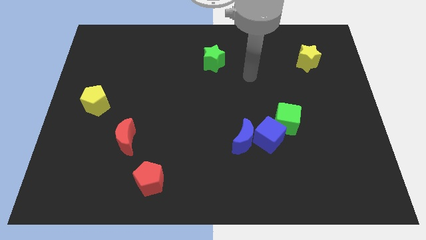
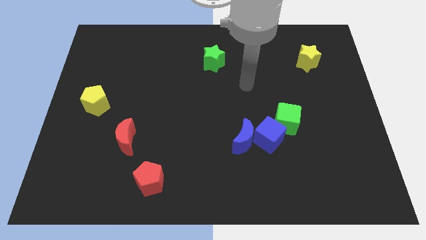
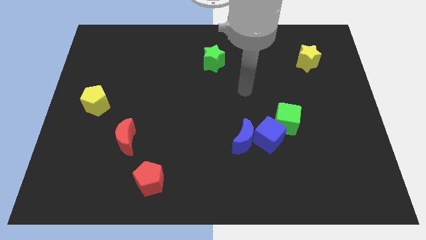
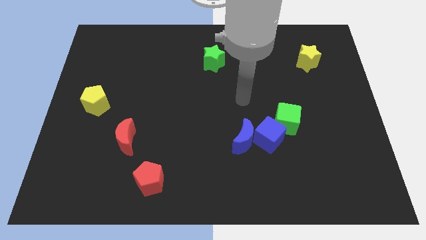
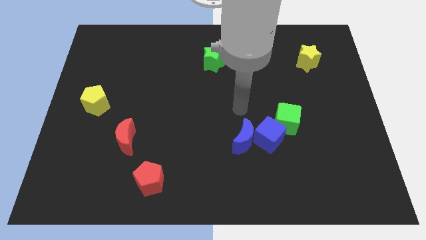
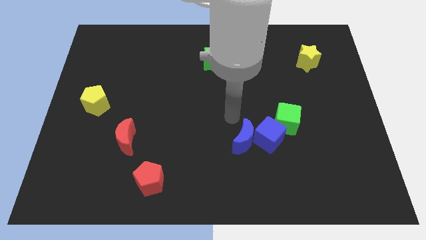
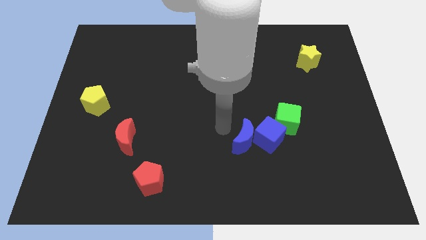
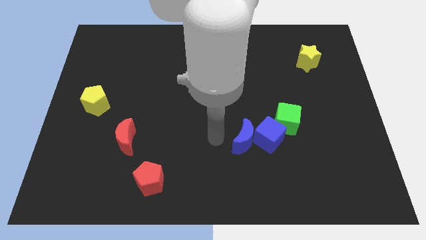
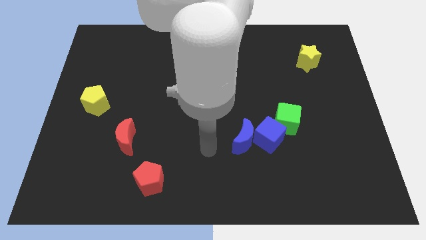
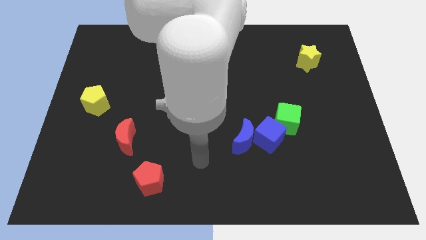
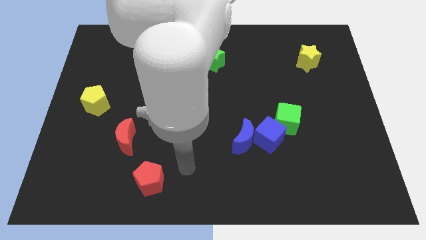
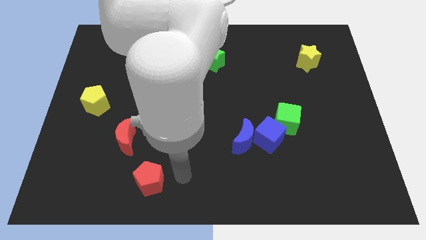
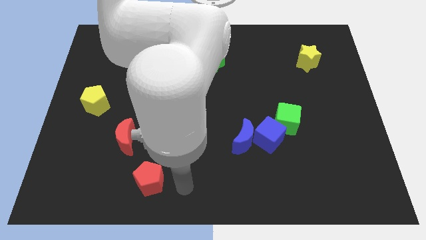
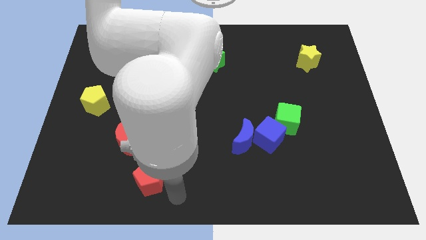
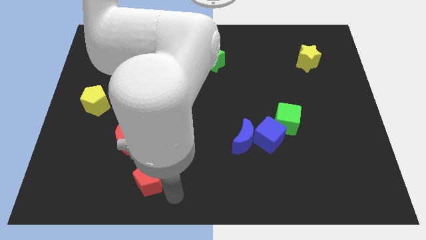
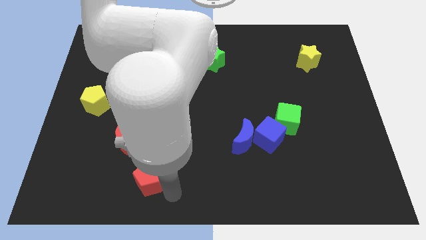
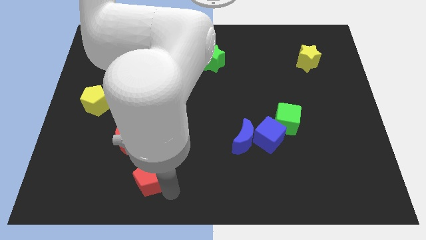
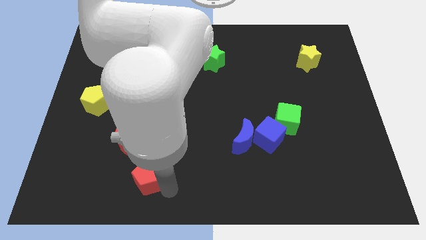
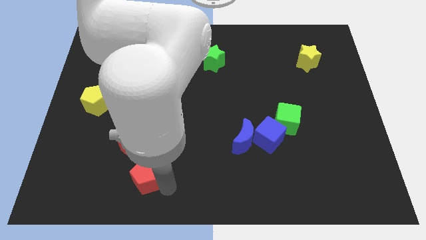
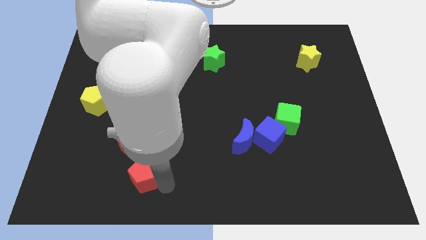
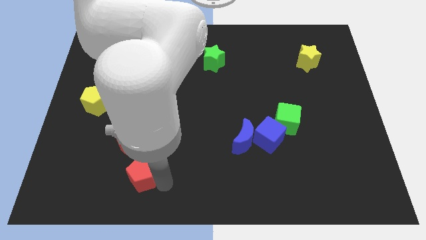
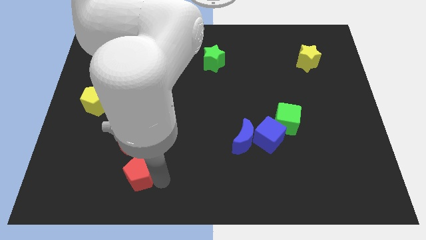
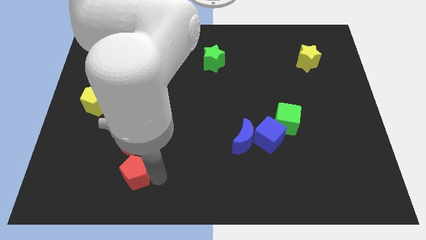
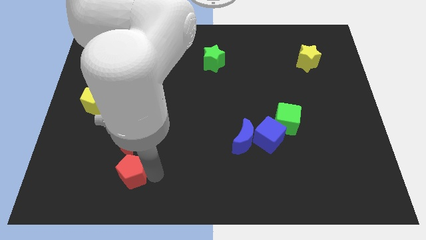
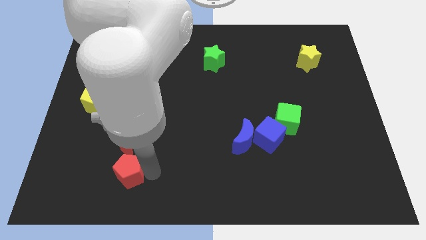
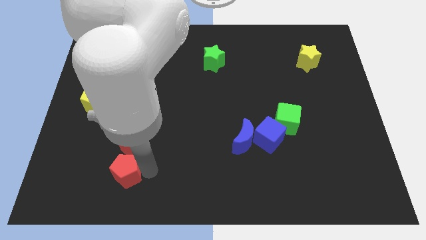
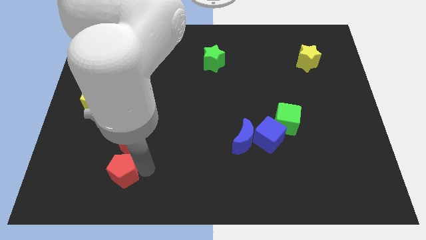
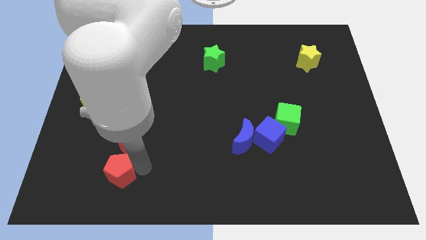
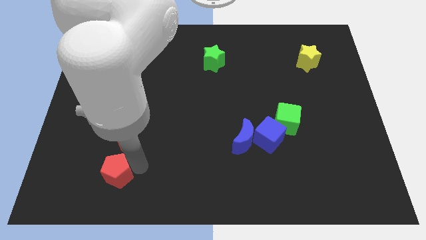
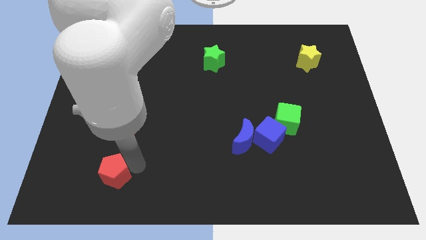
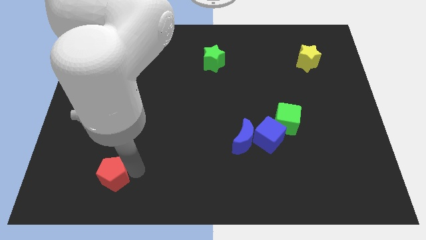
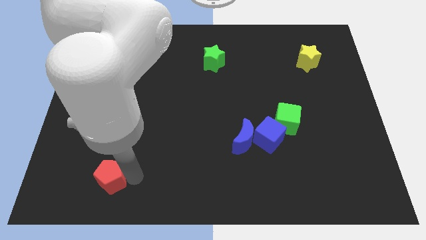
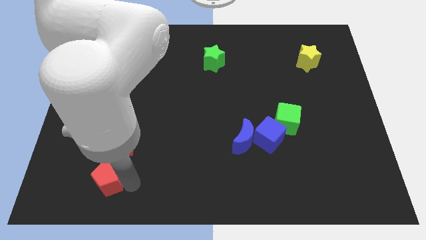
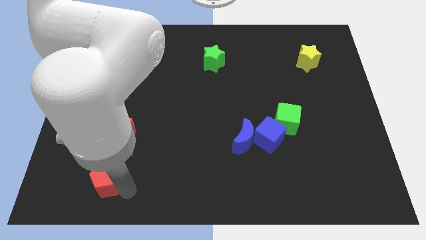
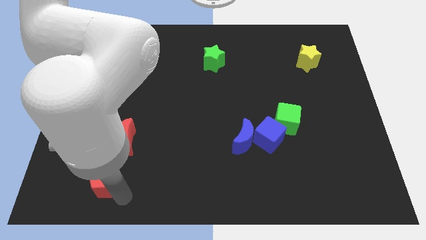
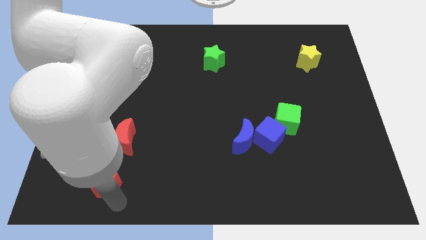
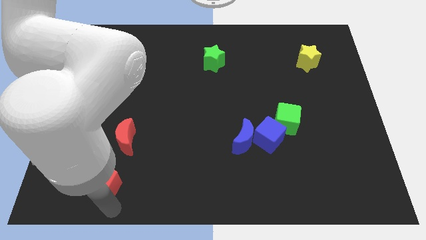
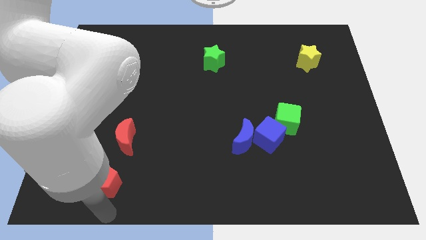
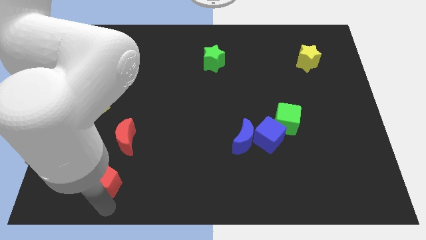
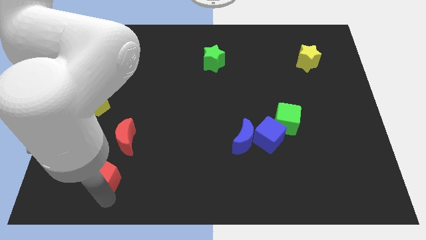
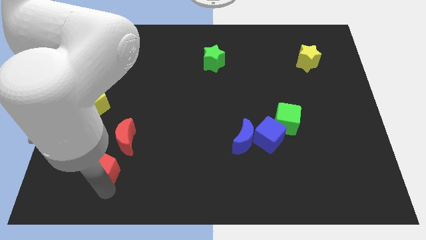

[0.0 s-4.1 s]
slightly move the red pentagon up and then left

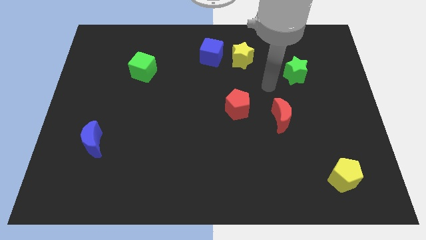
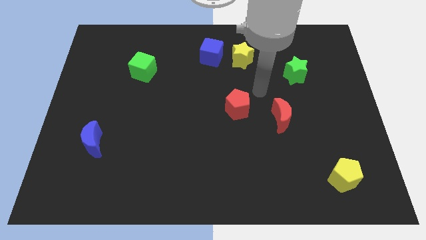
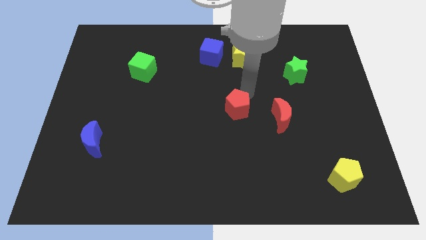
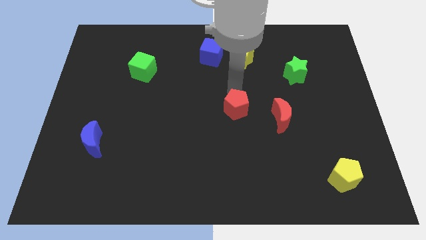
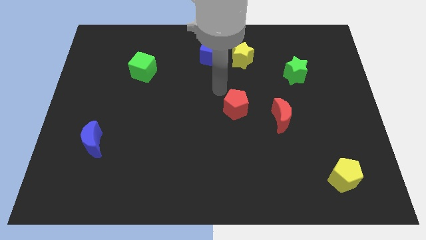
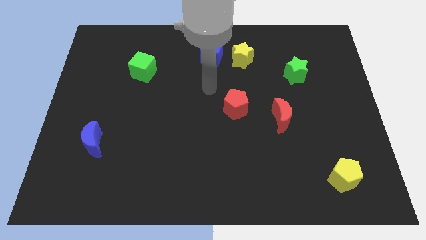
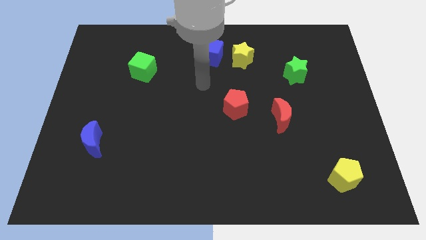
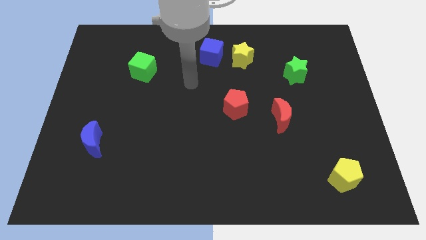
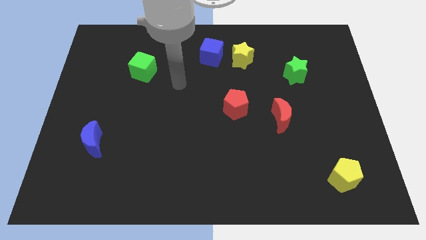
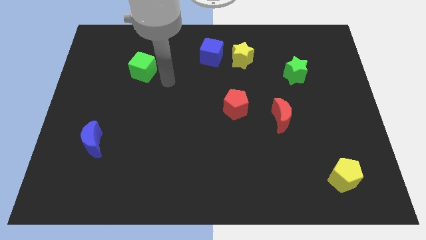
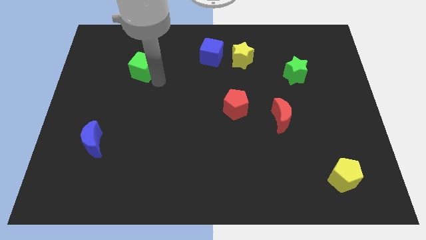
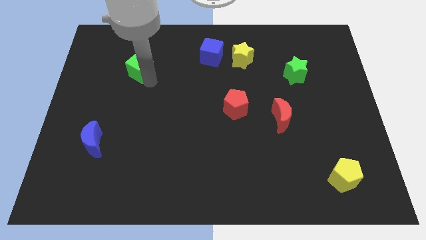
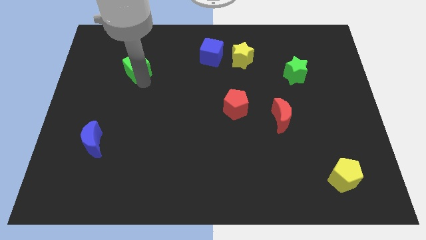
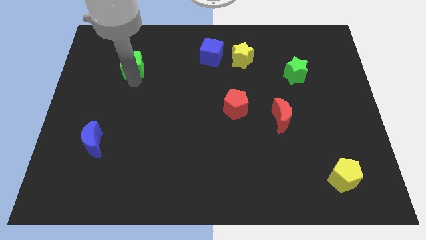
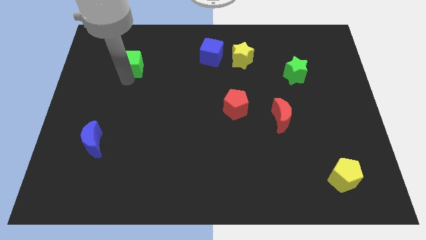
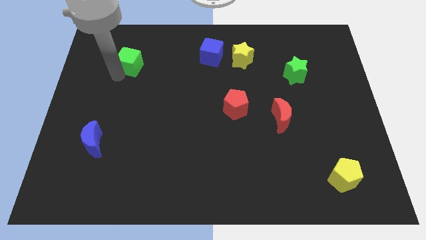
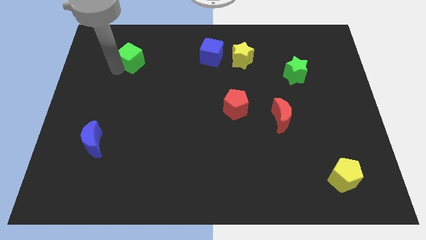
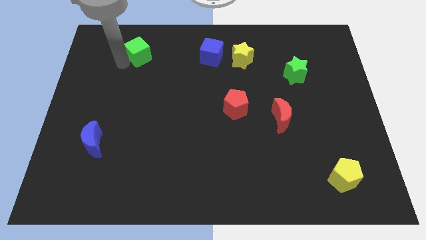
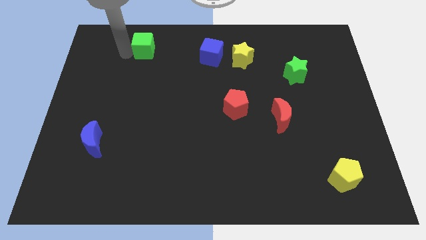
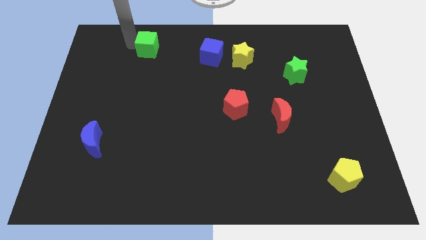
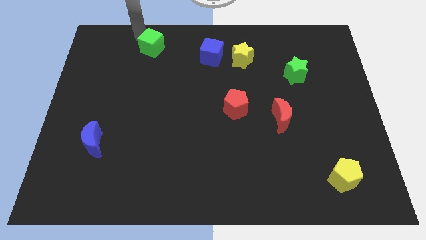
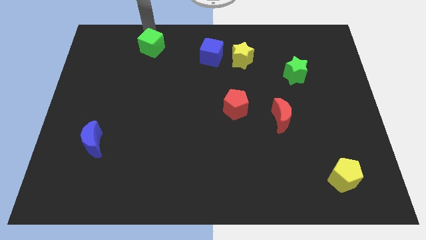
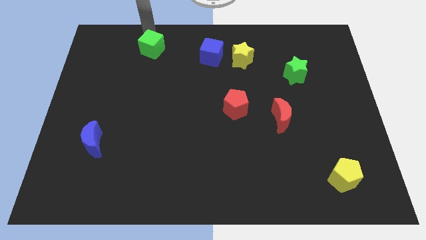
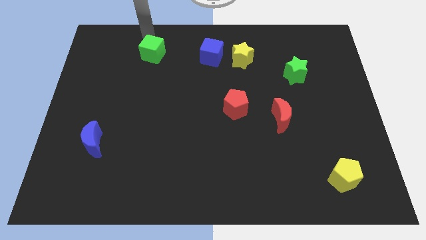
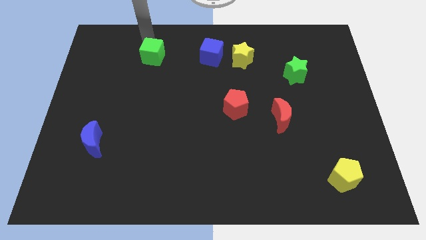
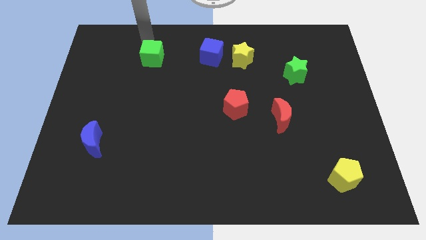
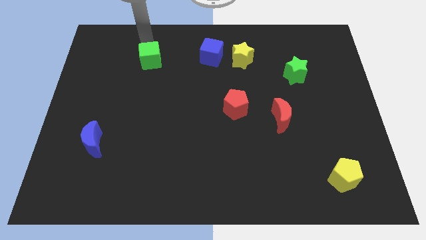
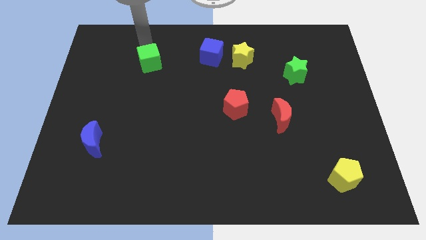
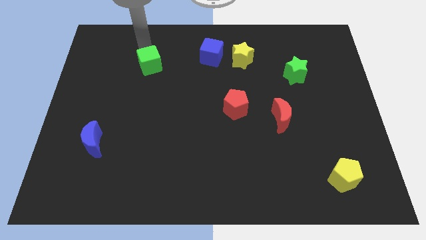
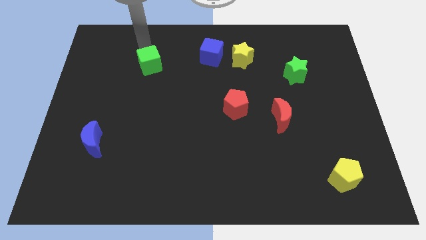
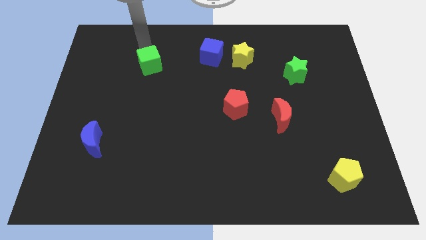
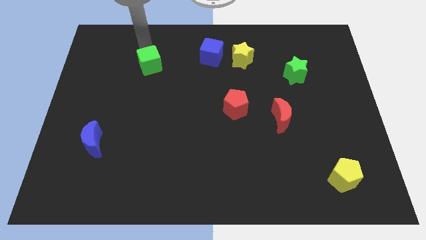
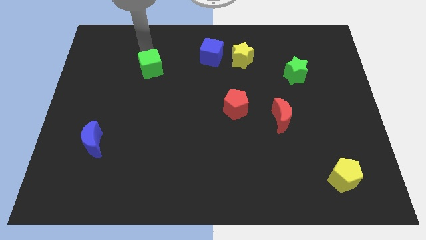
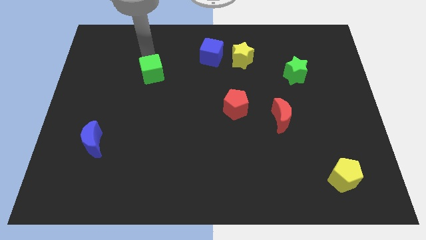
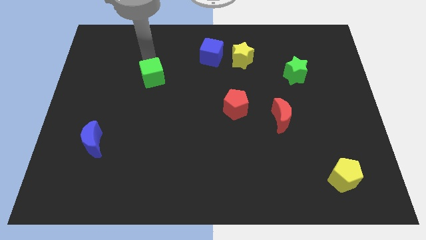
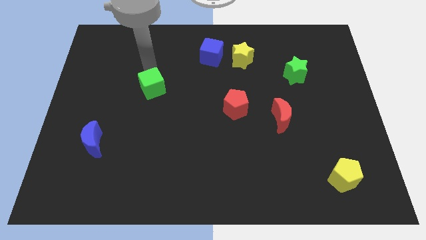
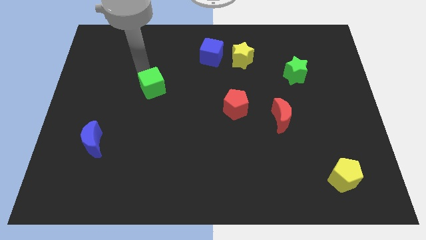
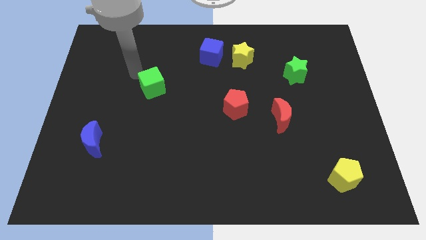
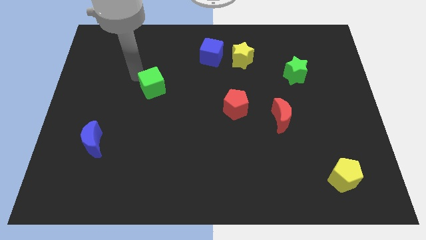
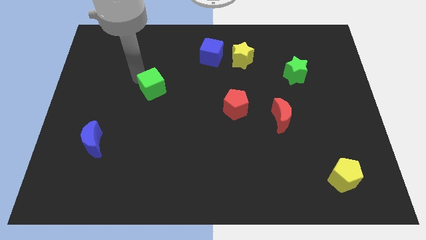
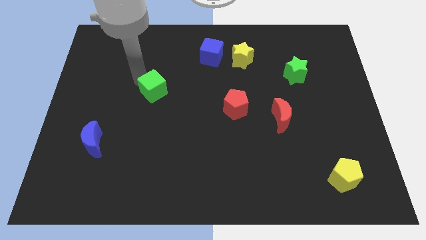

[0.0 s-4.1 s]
slightly slide the green cube downwards and to the right
